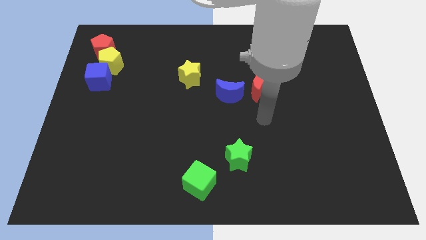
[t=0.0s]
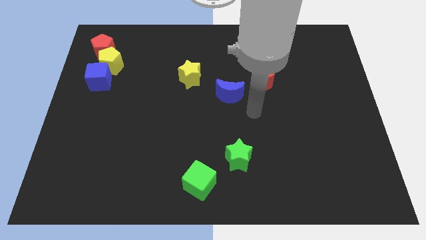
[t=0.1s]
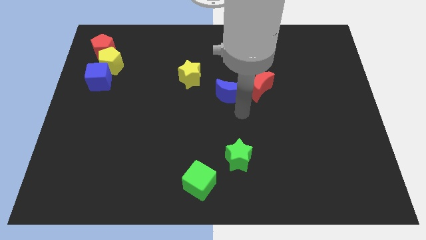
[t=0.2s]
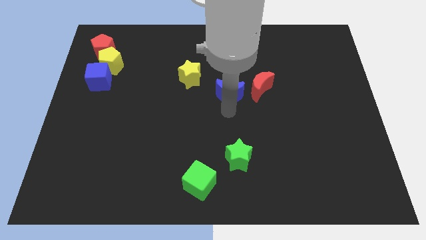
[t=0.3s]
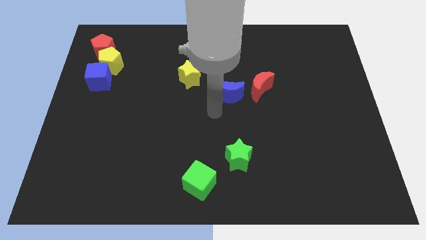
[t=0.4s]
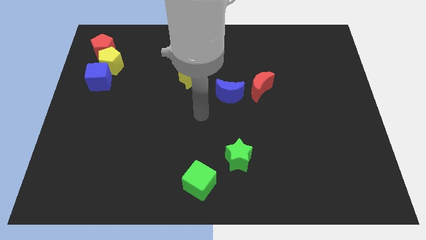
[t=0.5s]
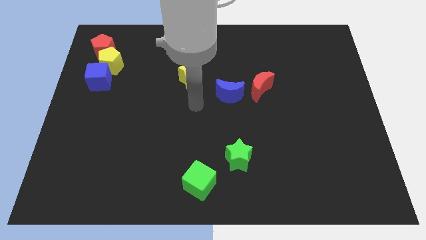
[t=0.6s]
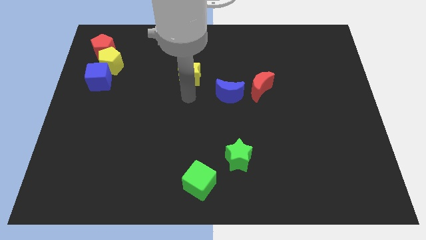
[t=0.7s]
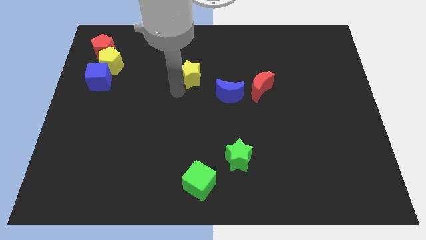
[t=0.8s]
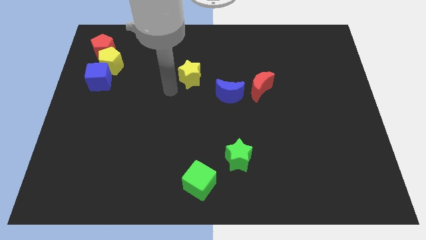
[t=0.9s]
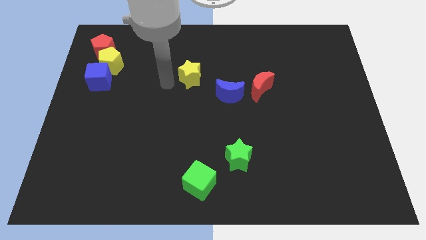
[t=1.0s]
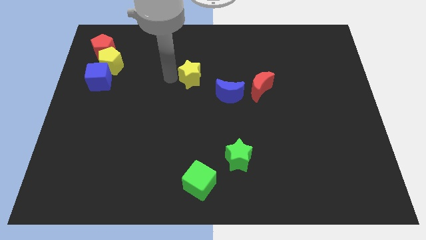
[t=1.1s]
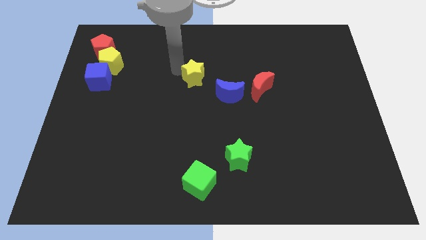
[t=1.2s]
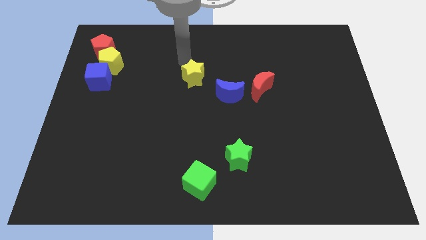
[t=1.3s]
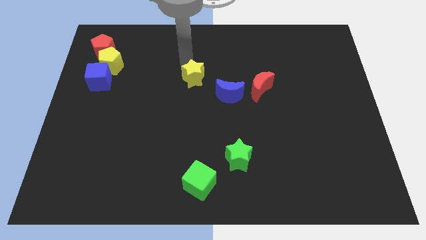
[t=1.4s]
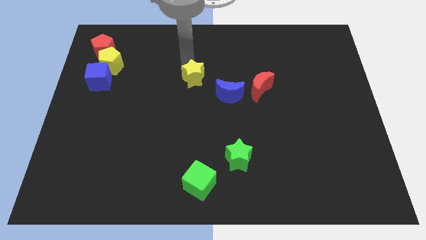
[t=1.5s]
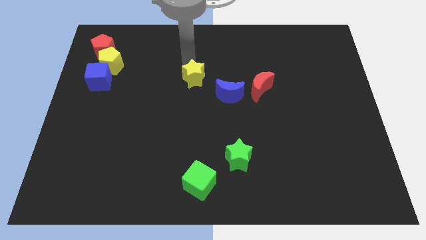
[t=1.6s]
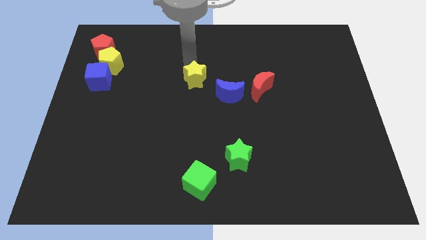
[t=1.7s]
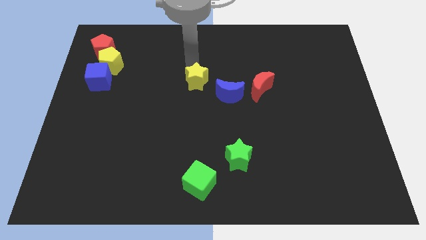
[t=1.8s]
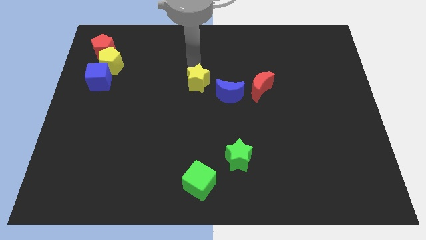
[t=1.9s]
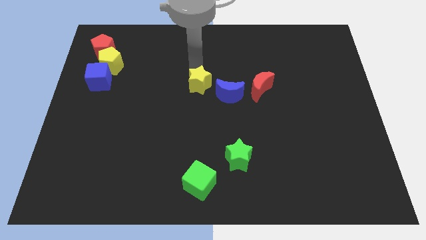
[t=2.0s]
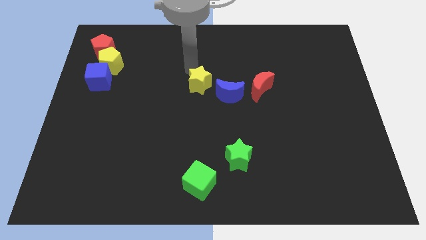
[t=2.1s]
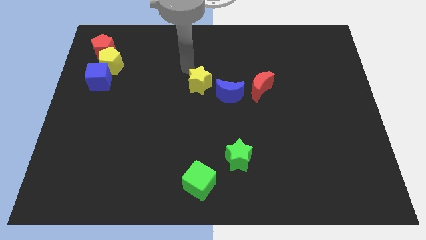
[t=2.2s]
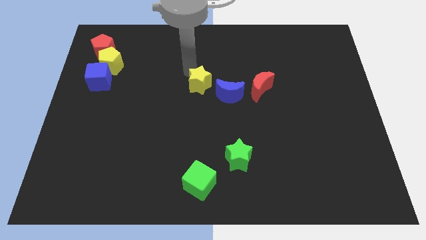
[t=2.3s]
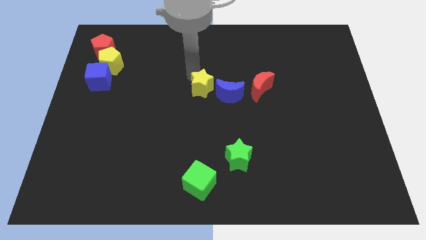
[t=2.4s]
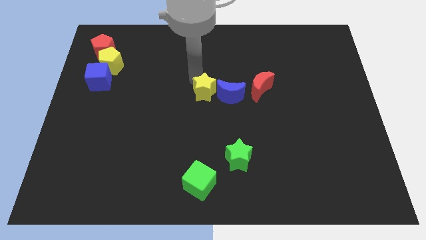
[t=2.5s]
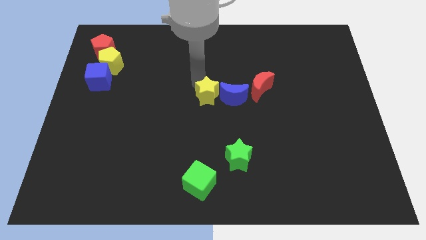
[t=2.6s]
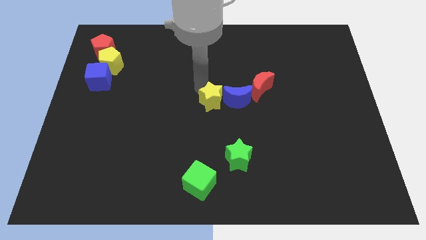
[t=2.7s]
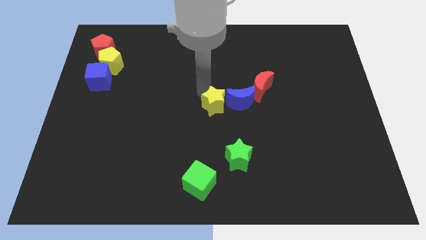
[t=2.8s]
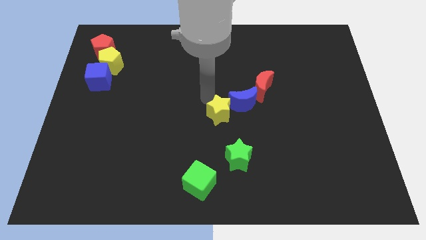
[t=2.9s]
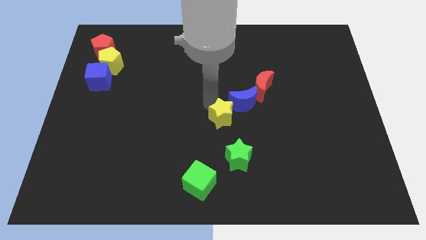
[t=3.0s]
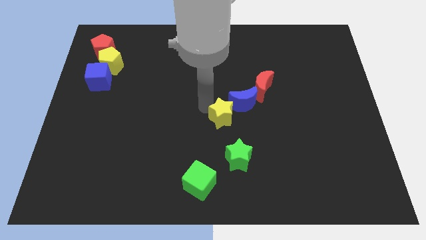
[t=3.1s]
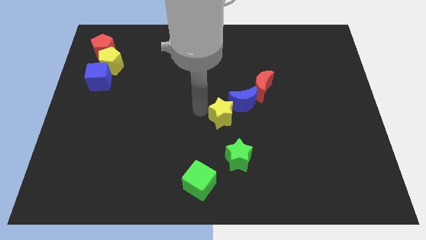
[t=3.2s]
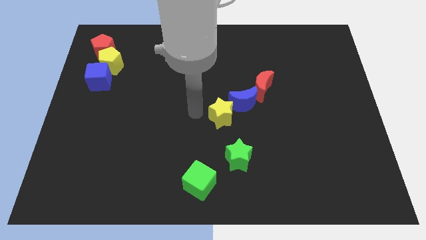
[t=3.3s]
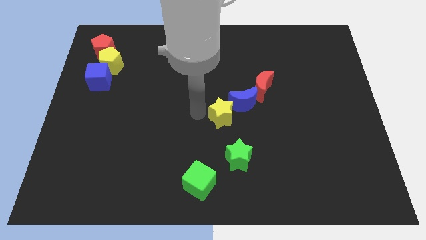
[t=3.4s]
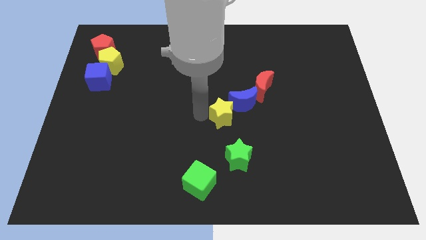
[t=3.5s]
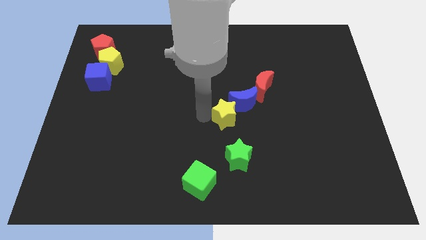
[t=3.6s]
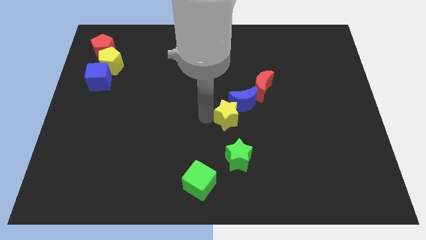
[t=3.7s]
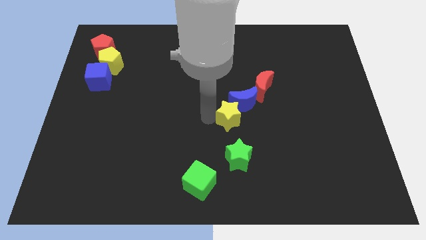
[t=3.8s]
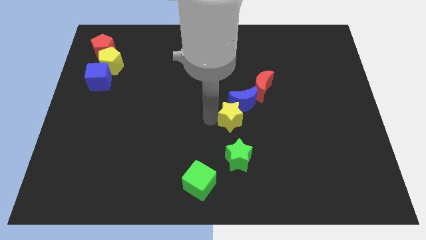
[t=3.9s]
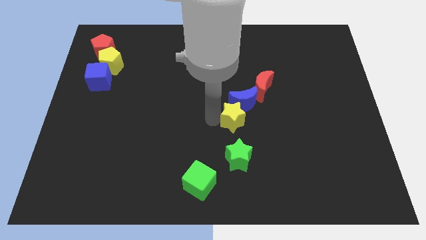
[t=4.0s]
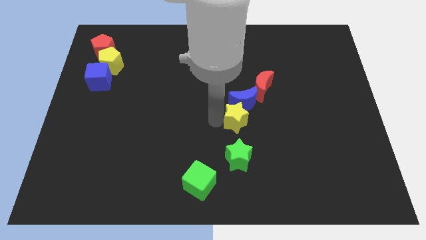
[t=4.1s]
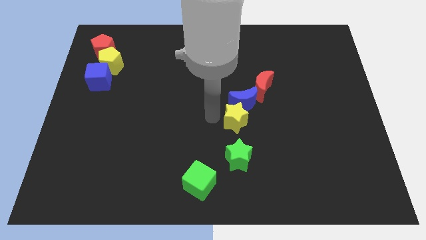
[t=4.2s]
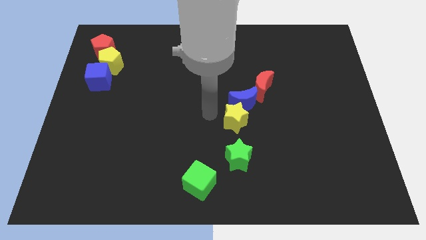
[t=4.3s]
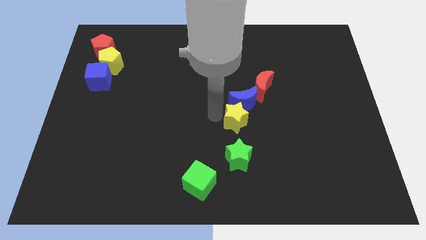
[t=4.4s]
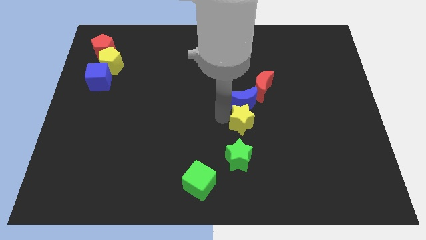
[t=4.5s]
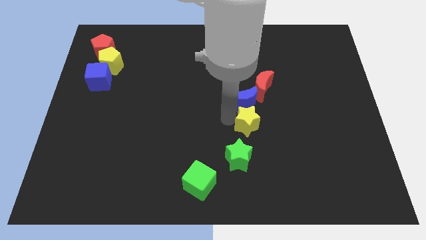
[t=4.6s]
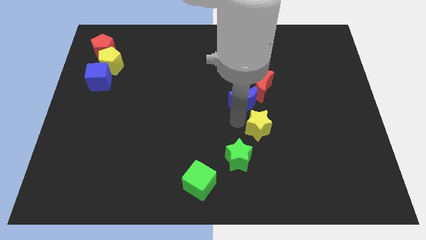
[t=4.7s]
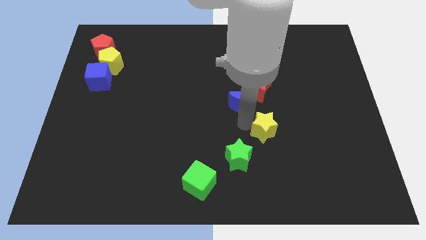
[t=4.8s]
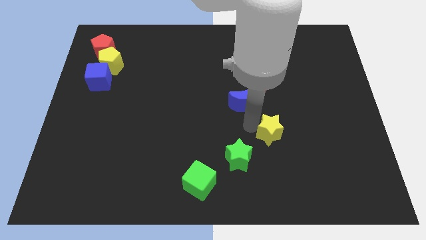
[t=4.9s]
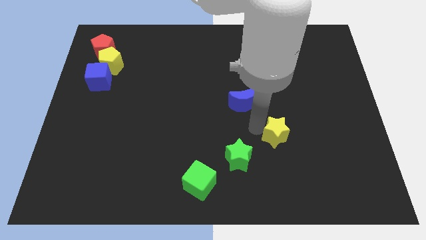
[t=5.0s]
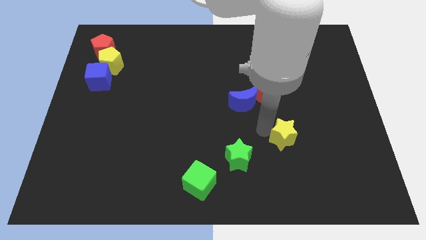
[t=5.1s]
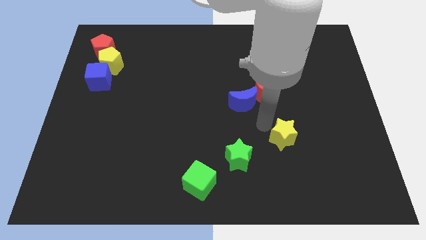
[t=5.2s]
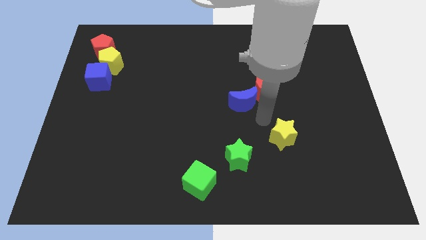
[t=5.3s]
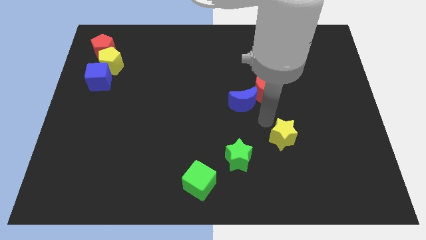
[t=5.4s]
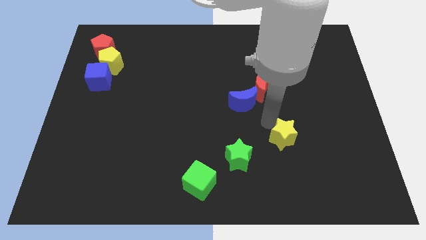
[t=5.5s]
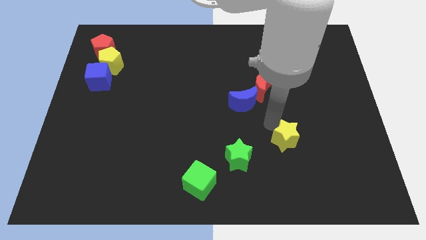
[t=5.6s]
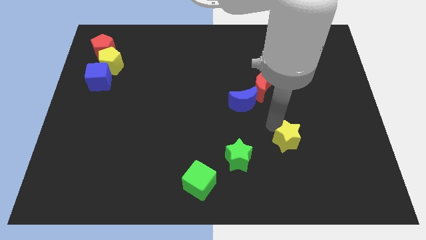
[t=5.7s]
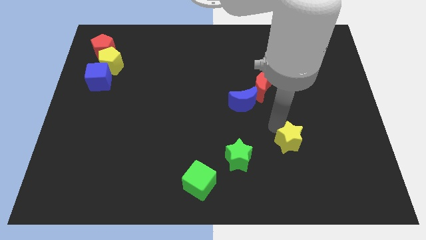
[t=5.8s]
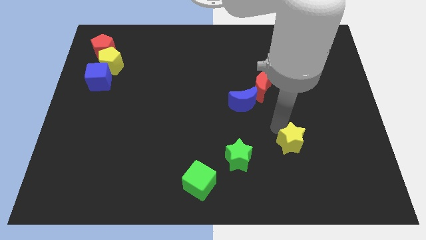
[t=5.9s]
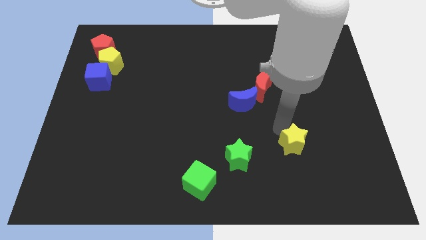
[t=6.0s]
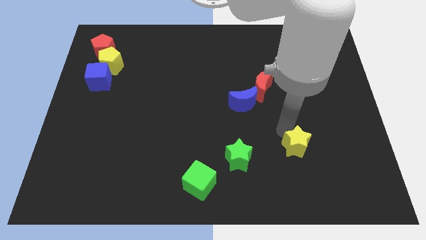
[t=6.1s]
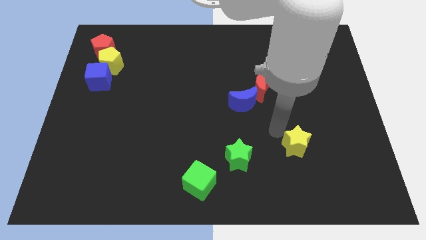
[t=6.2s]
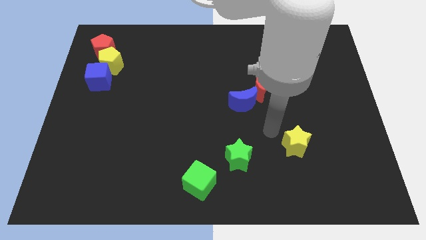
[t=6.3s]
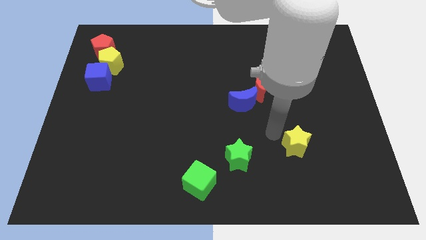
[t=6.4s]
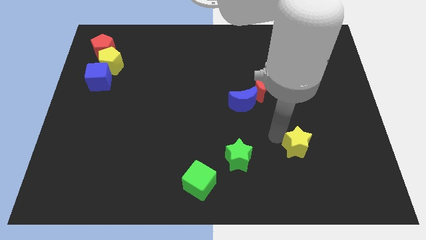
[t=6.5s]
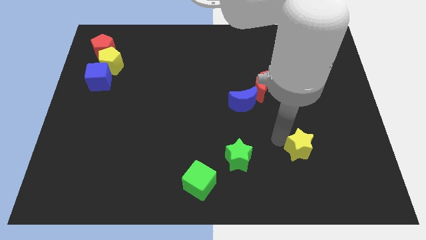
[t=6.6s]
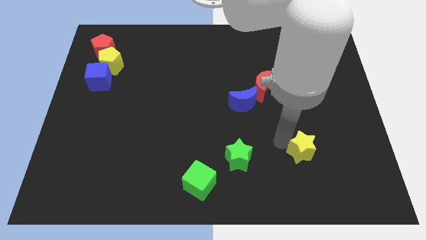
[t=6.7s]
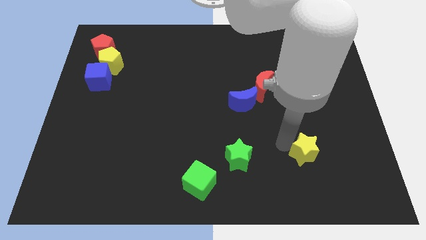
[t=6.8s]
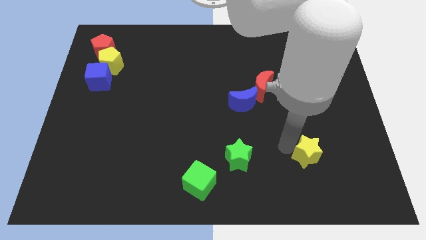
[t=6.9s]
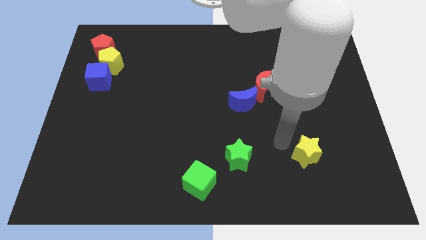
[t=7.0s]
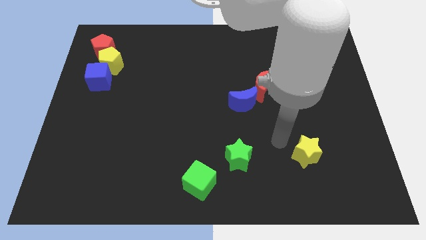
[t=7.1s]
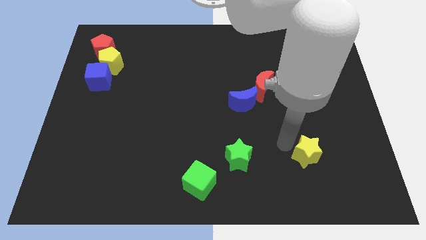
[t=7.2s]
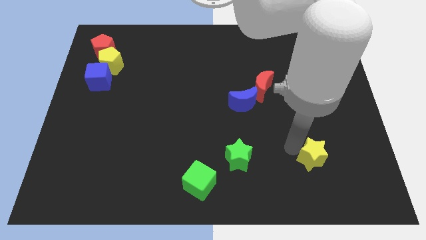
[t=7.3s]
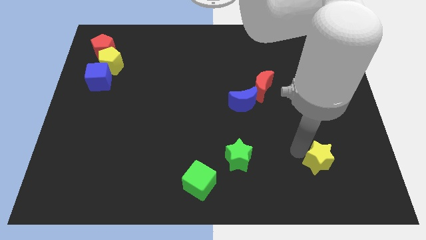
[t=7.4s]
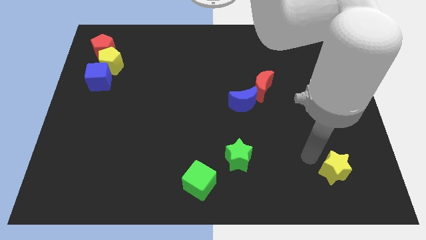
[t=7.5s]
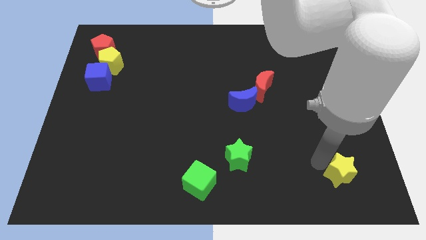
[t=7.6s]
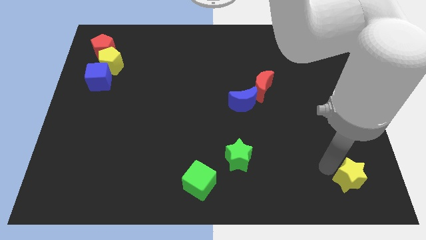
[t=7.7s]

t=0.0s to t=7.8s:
push the yellow star to the lower right corner

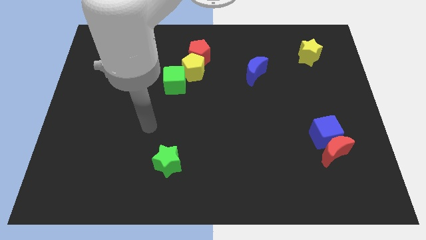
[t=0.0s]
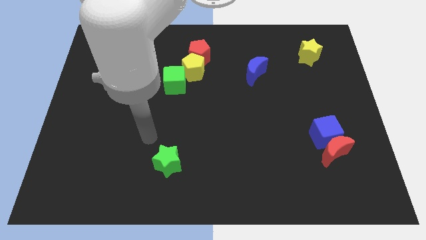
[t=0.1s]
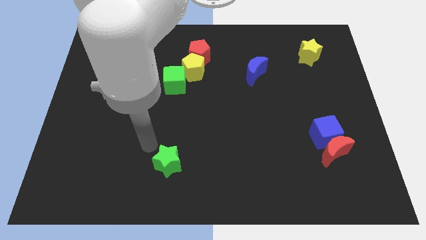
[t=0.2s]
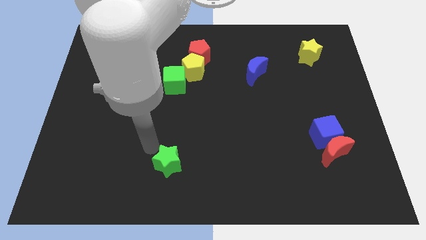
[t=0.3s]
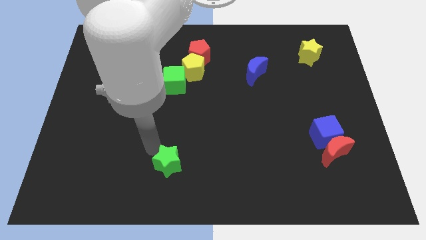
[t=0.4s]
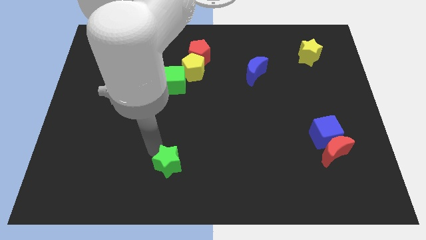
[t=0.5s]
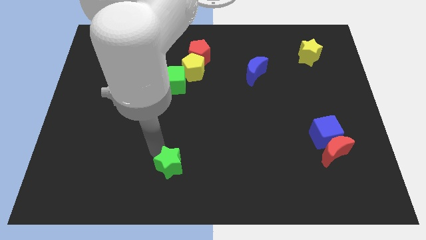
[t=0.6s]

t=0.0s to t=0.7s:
move the green star to the bottom
